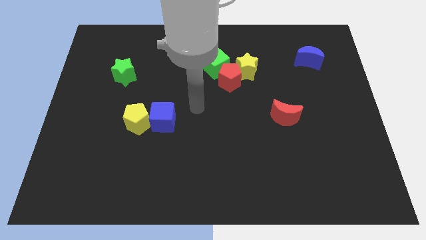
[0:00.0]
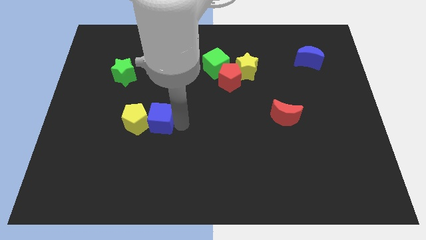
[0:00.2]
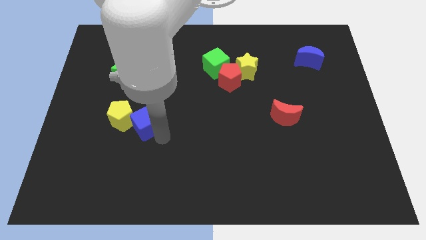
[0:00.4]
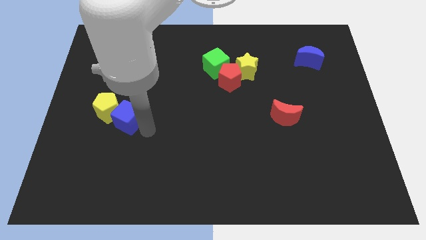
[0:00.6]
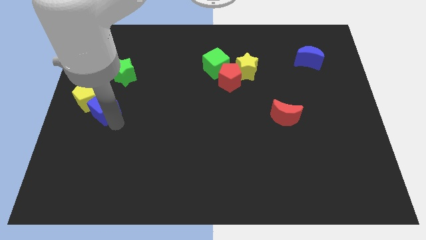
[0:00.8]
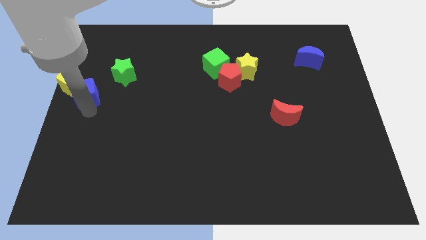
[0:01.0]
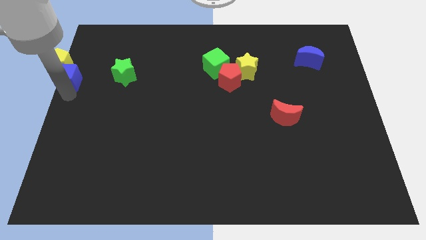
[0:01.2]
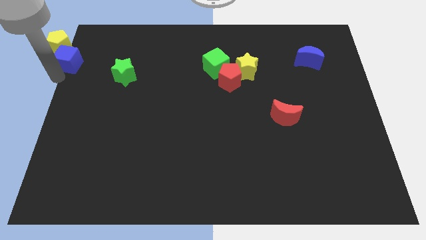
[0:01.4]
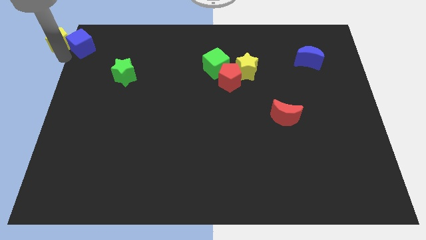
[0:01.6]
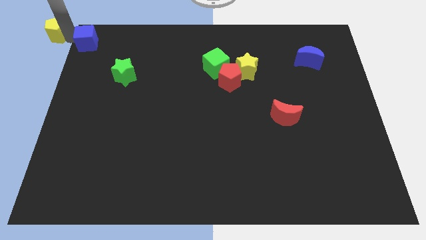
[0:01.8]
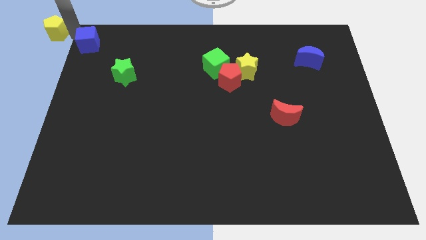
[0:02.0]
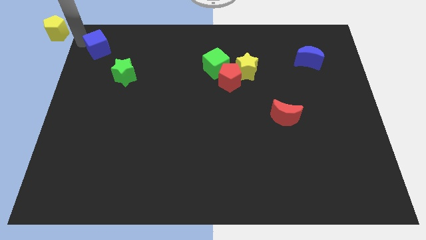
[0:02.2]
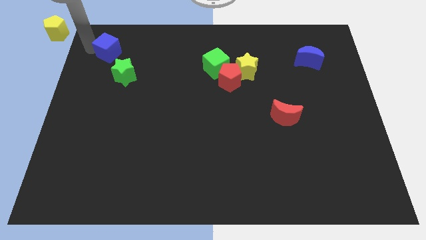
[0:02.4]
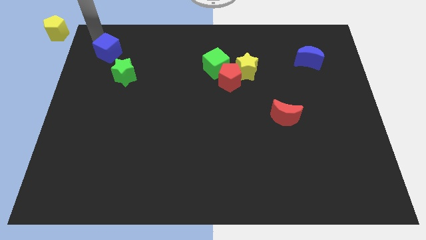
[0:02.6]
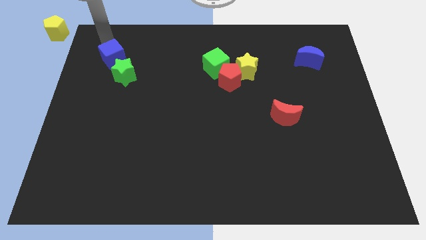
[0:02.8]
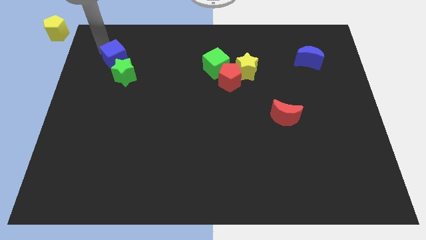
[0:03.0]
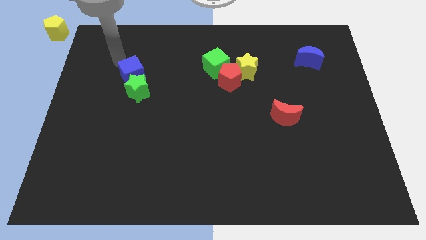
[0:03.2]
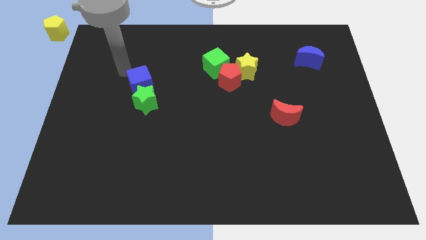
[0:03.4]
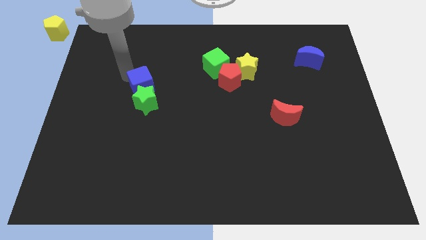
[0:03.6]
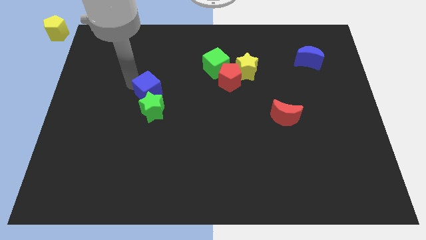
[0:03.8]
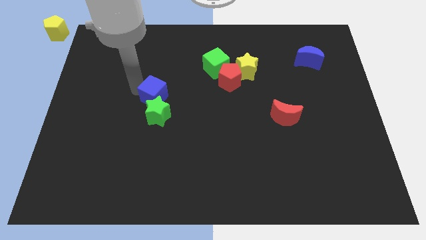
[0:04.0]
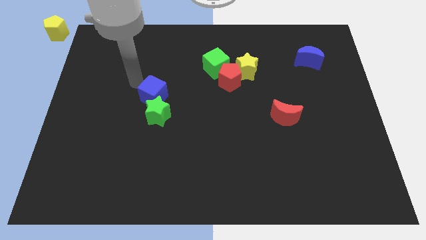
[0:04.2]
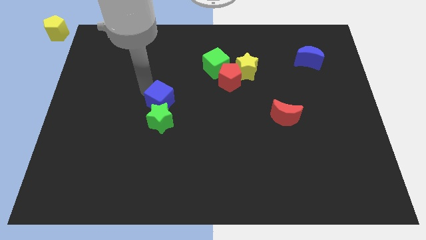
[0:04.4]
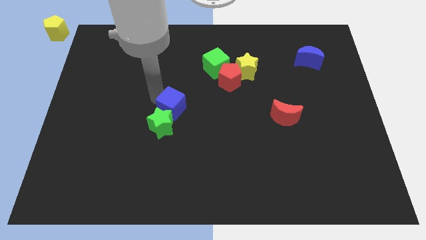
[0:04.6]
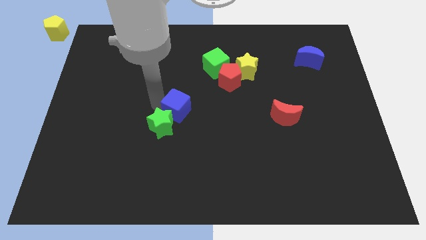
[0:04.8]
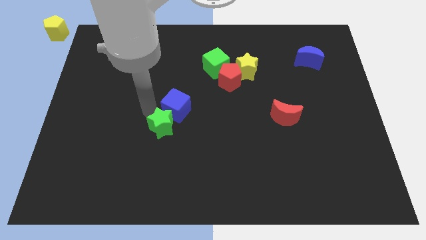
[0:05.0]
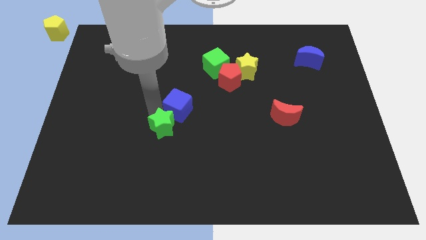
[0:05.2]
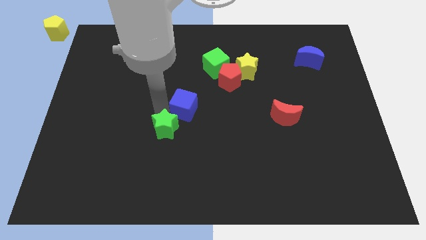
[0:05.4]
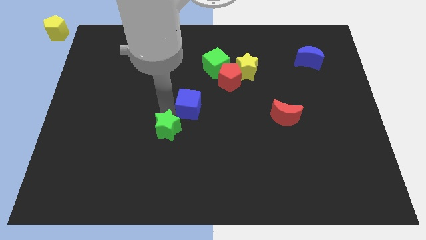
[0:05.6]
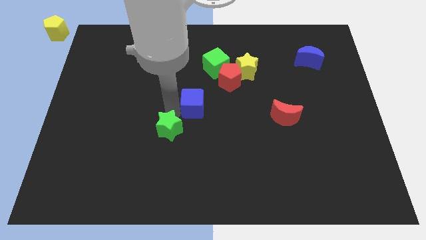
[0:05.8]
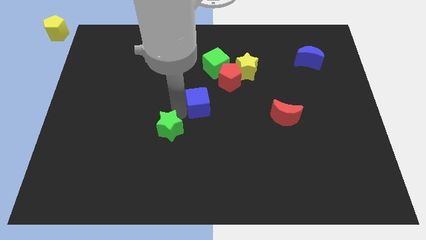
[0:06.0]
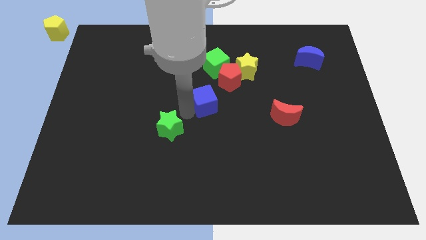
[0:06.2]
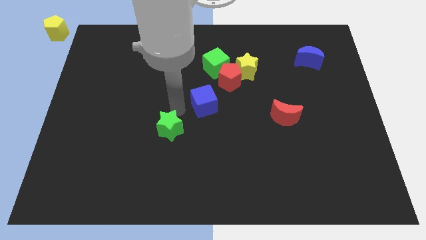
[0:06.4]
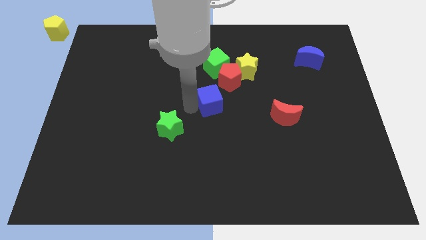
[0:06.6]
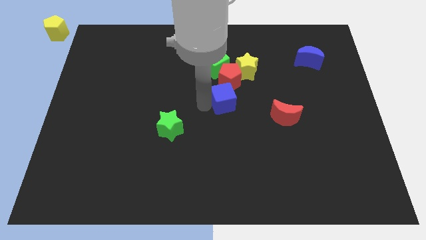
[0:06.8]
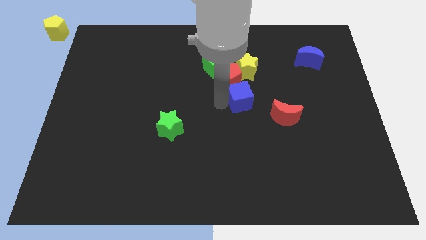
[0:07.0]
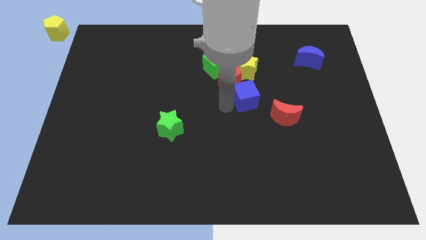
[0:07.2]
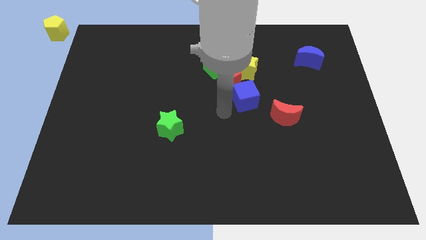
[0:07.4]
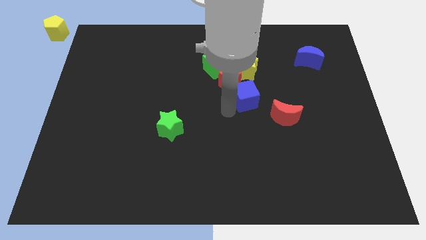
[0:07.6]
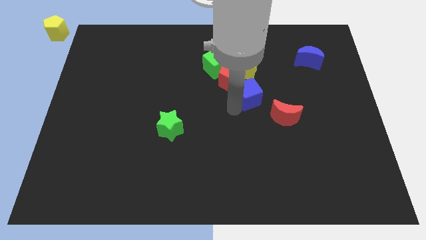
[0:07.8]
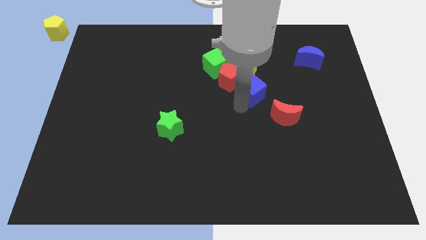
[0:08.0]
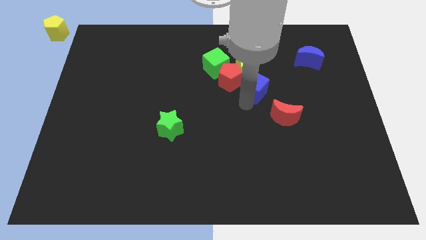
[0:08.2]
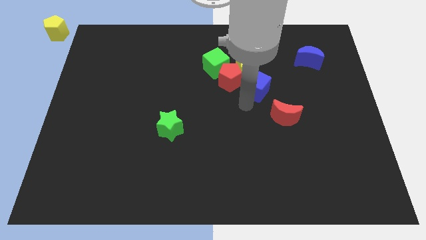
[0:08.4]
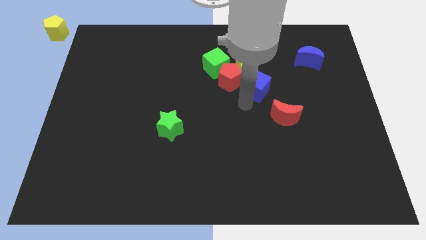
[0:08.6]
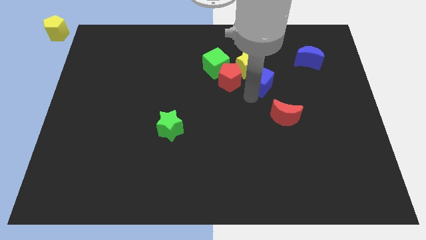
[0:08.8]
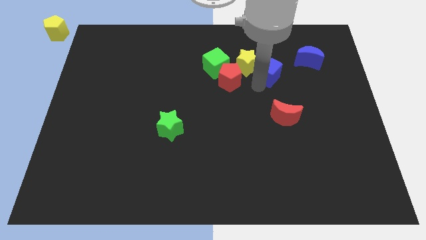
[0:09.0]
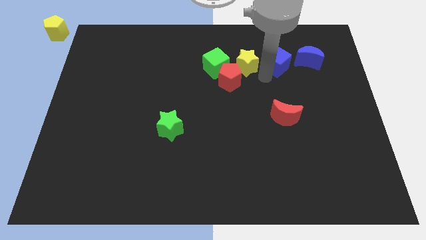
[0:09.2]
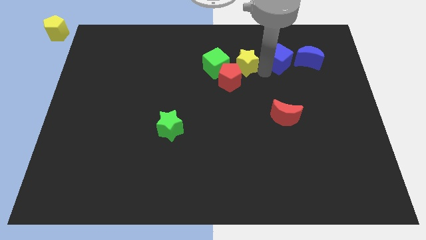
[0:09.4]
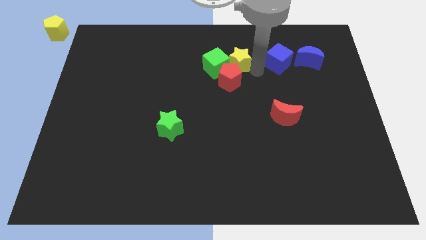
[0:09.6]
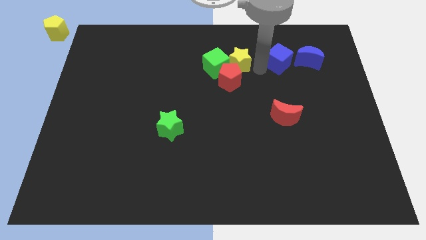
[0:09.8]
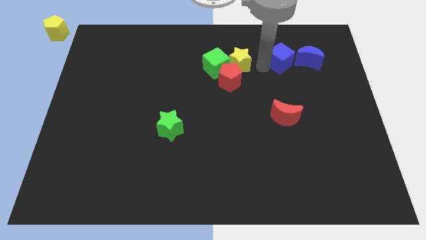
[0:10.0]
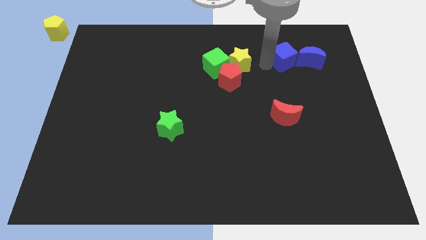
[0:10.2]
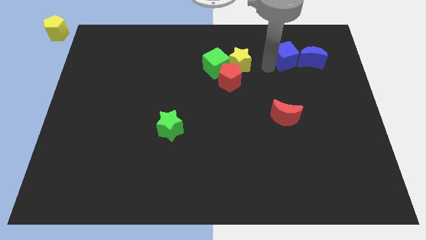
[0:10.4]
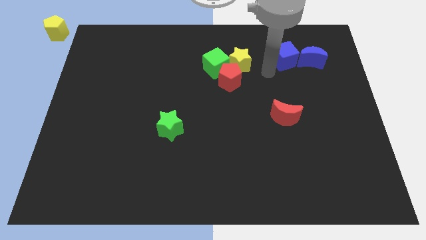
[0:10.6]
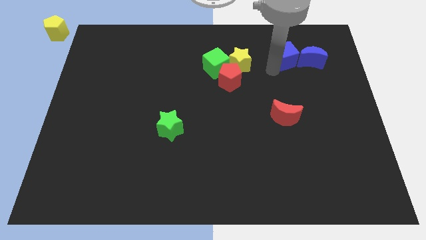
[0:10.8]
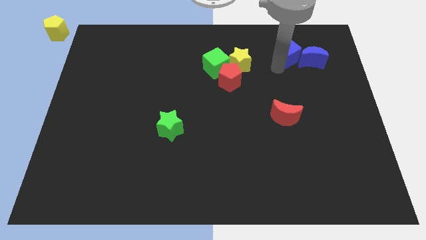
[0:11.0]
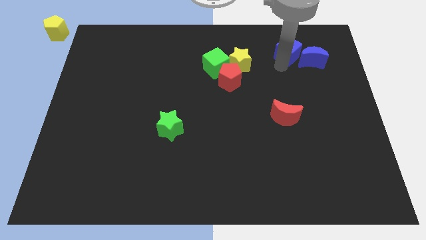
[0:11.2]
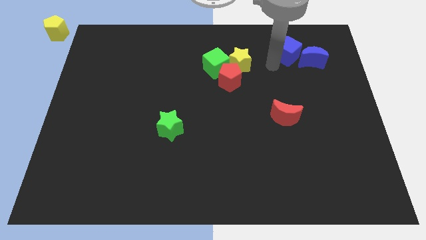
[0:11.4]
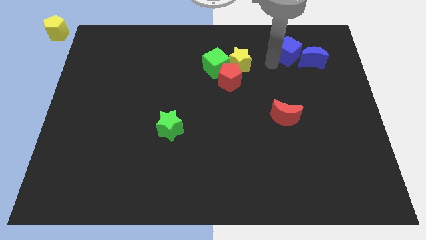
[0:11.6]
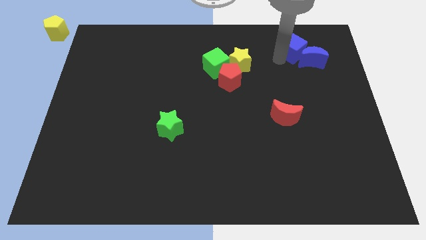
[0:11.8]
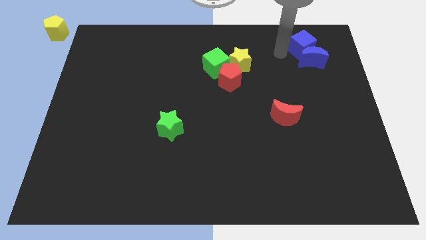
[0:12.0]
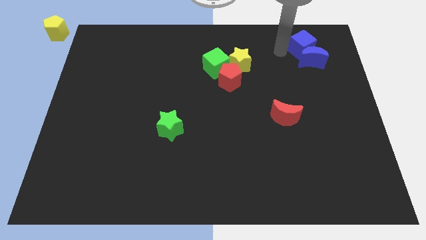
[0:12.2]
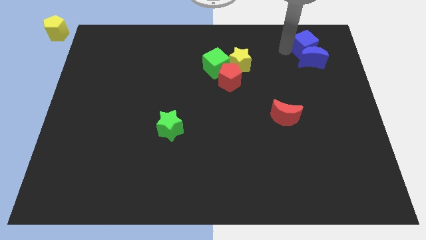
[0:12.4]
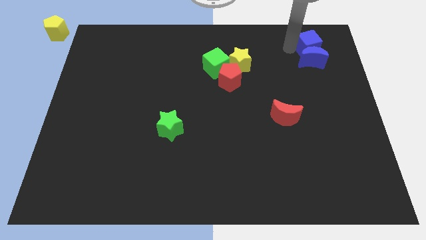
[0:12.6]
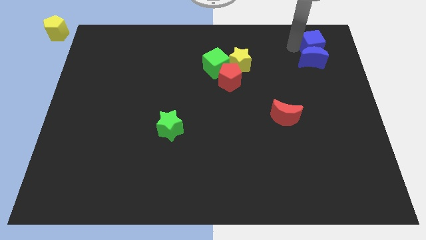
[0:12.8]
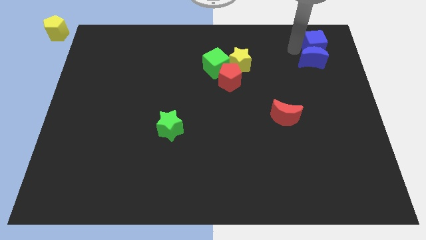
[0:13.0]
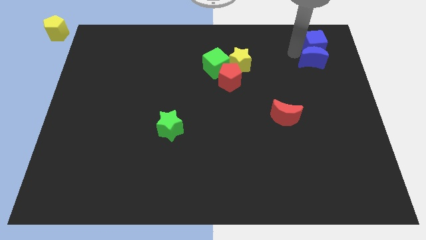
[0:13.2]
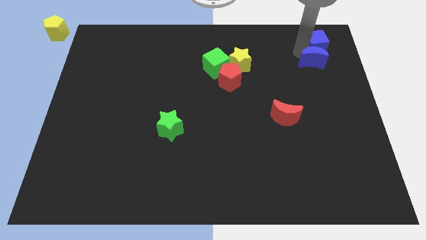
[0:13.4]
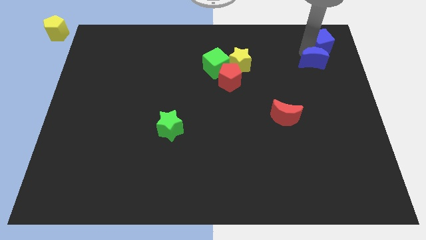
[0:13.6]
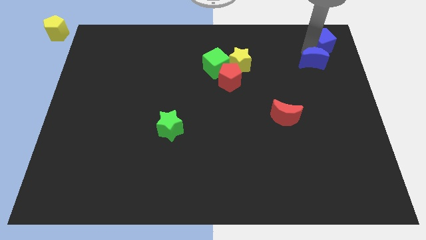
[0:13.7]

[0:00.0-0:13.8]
slide the blue cube to the top right
